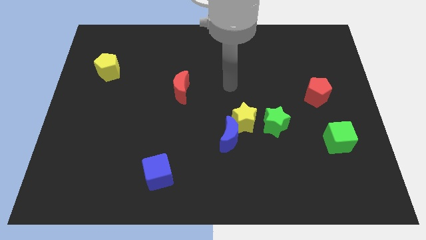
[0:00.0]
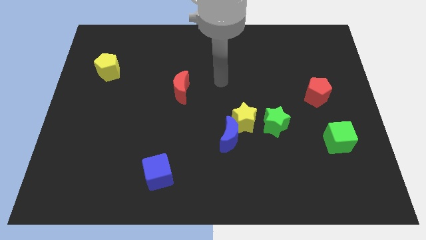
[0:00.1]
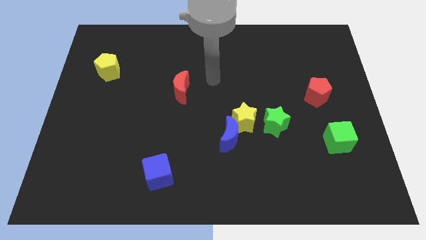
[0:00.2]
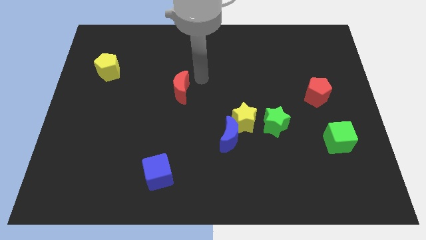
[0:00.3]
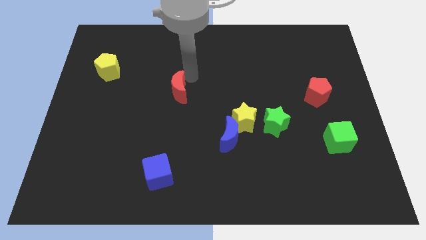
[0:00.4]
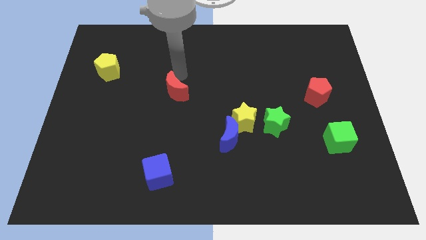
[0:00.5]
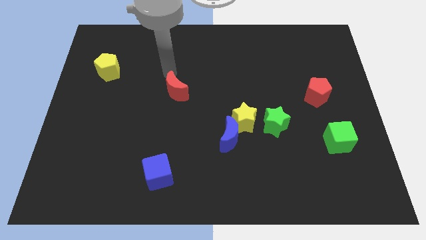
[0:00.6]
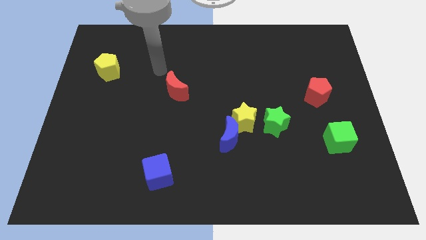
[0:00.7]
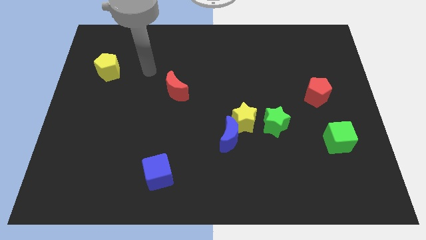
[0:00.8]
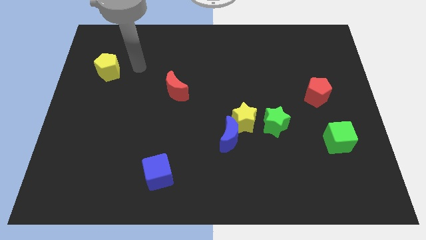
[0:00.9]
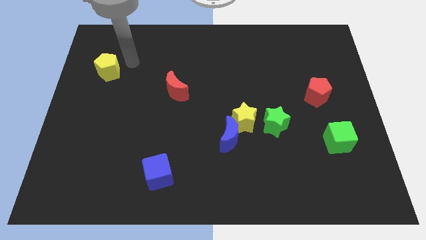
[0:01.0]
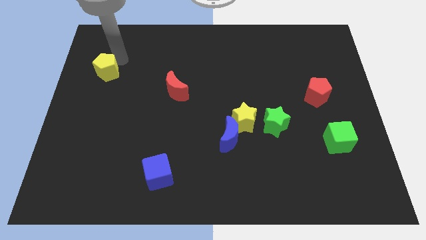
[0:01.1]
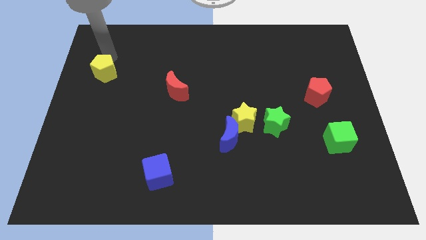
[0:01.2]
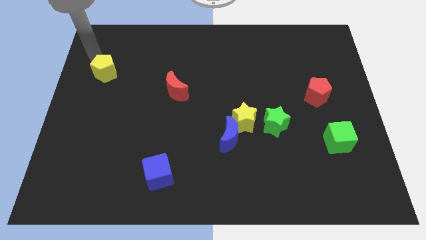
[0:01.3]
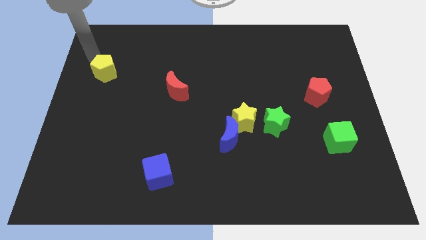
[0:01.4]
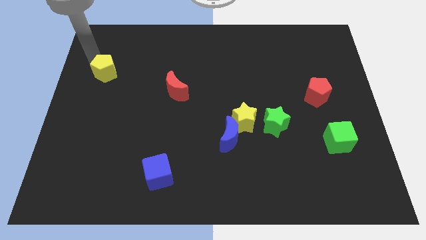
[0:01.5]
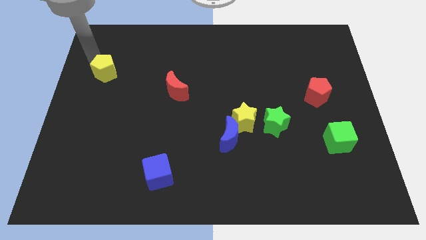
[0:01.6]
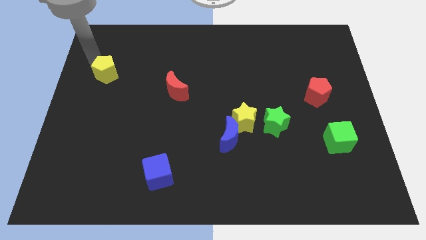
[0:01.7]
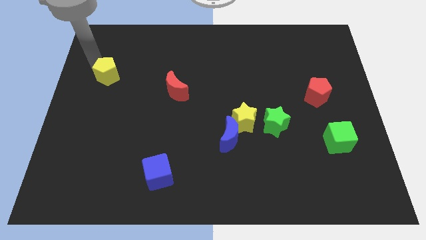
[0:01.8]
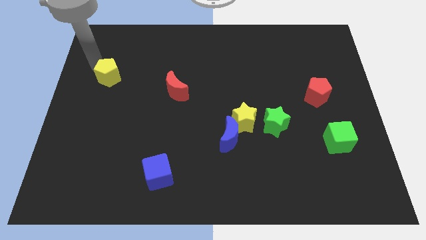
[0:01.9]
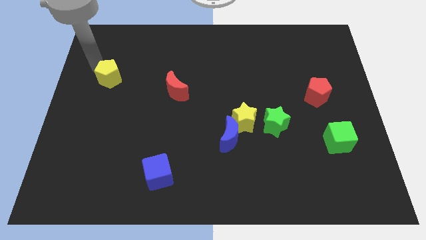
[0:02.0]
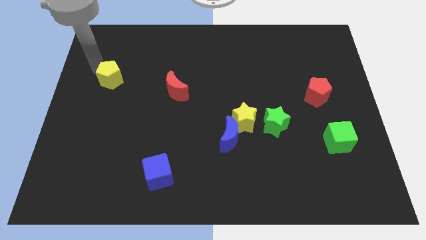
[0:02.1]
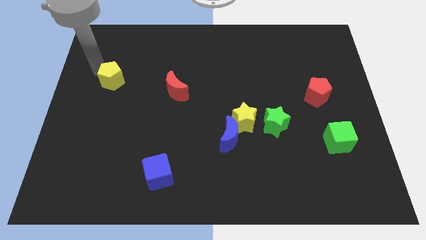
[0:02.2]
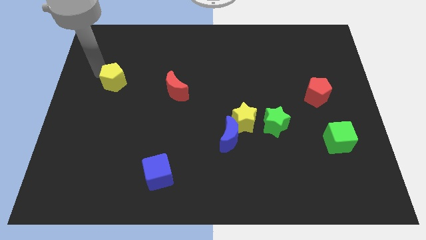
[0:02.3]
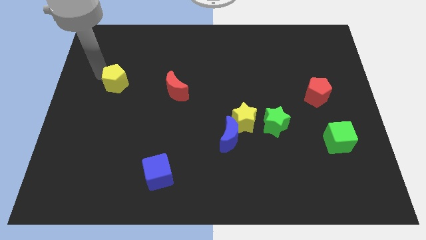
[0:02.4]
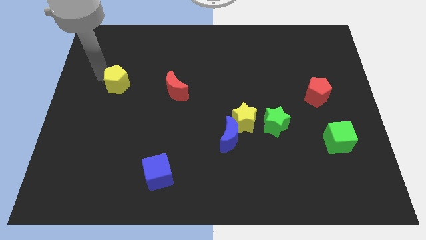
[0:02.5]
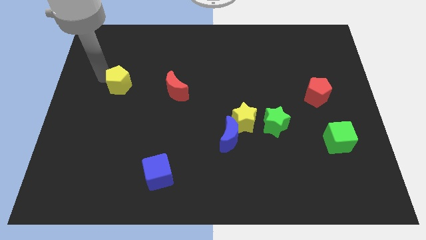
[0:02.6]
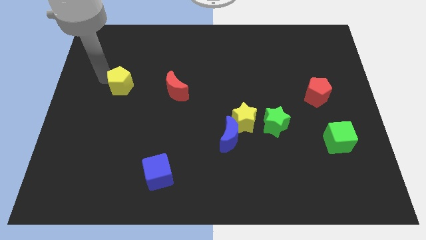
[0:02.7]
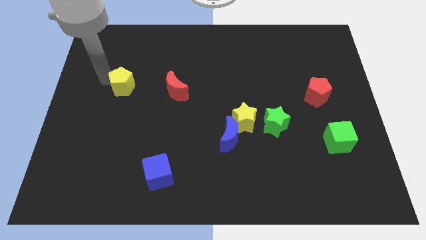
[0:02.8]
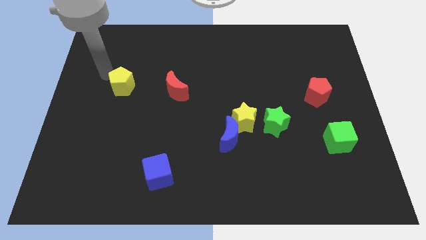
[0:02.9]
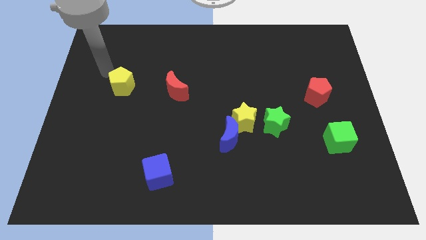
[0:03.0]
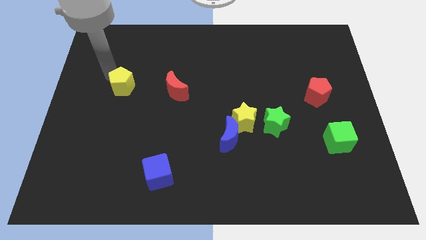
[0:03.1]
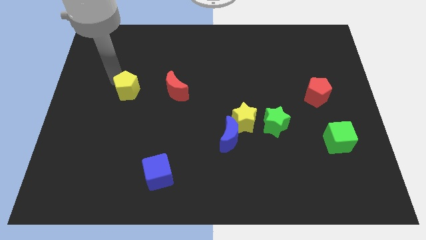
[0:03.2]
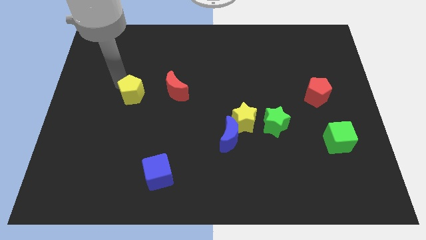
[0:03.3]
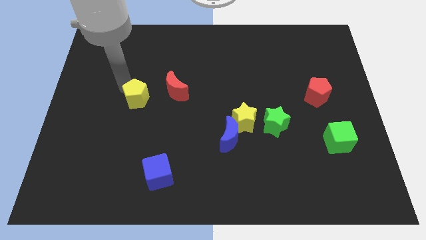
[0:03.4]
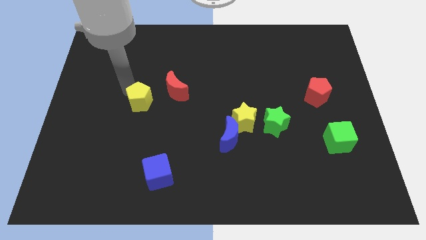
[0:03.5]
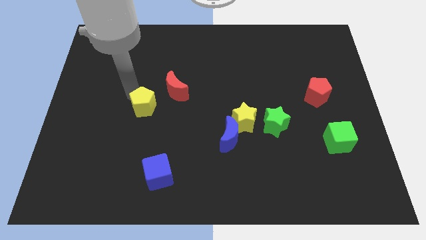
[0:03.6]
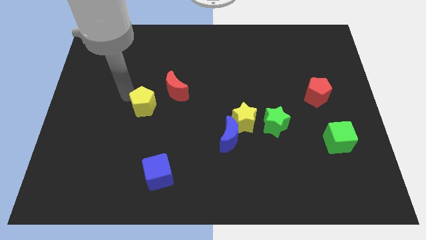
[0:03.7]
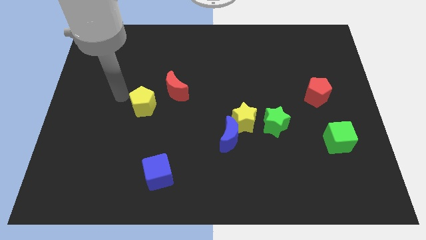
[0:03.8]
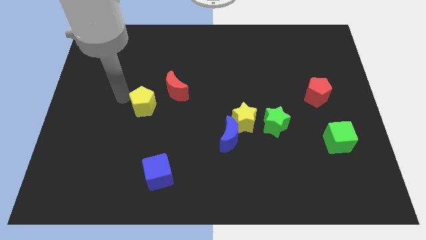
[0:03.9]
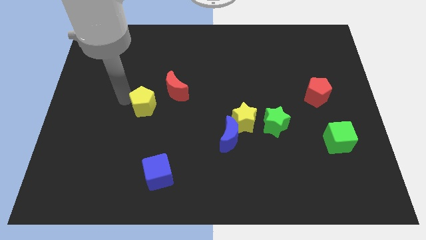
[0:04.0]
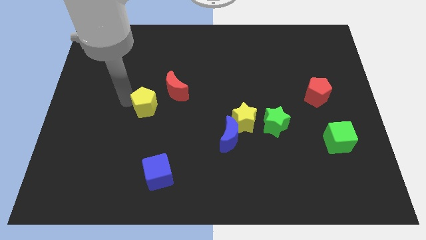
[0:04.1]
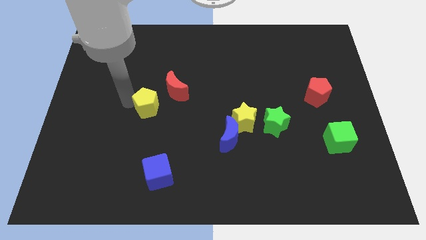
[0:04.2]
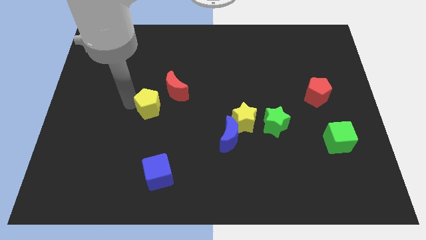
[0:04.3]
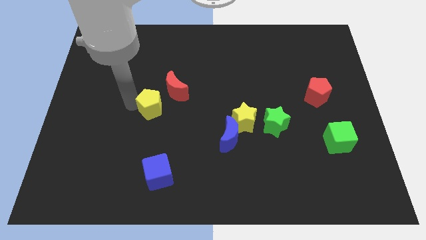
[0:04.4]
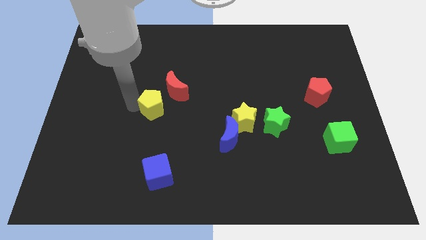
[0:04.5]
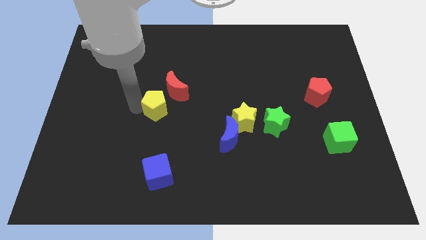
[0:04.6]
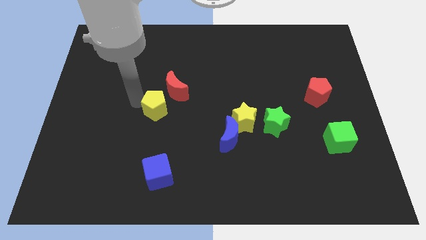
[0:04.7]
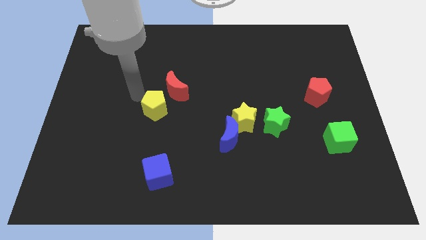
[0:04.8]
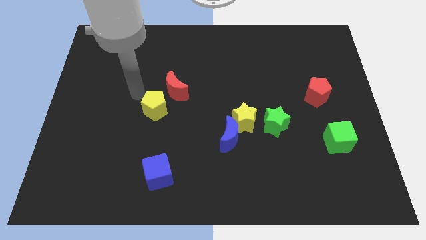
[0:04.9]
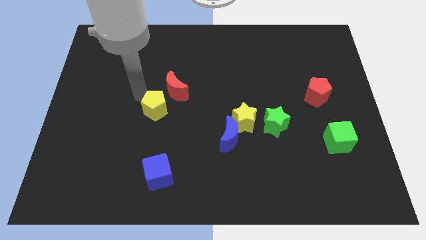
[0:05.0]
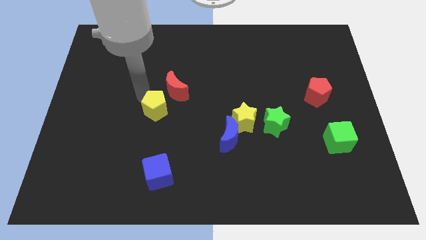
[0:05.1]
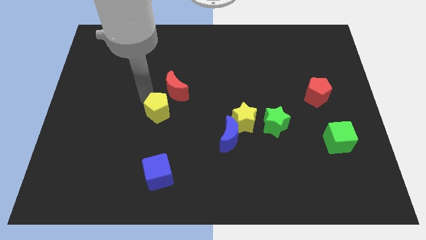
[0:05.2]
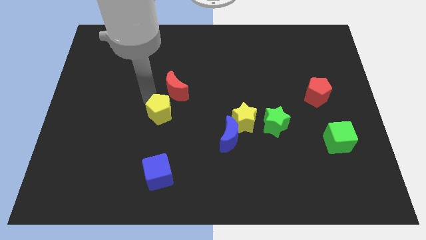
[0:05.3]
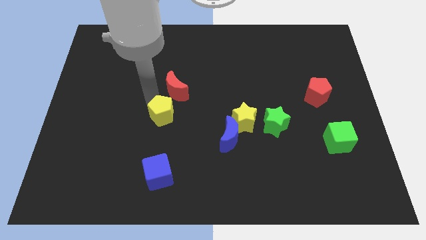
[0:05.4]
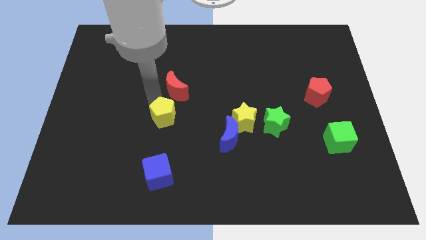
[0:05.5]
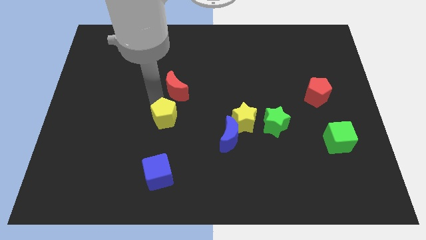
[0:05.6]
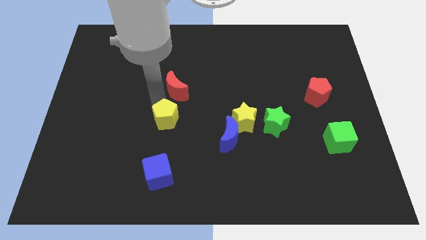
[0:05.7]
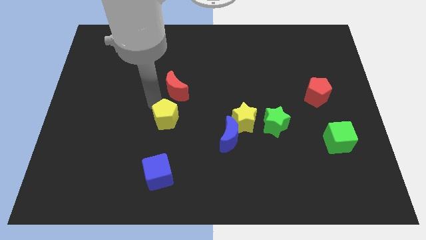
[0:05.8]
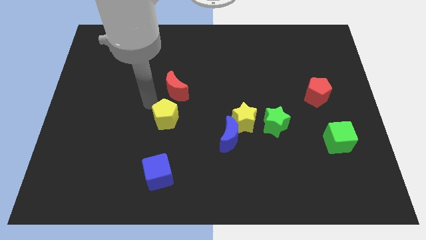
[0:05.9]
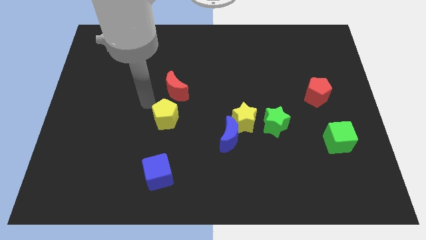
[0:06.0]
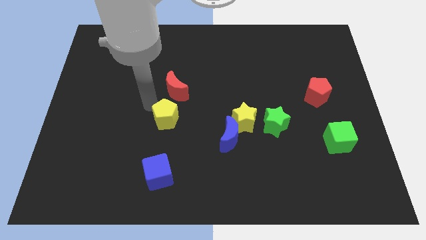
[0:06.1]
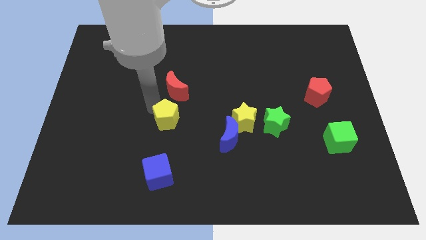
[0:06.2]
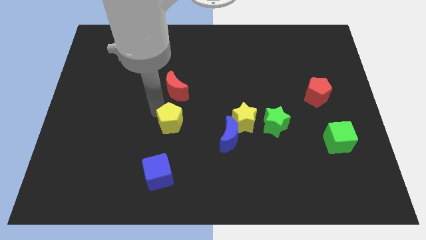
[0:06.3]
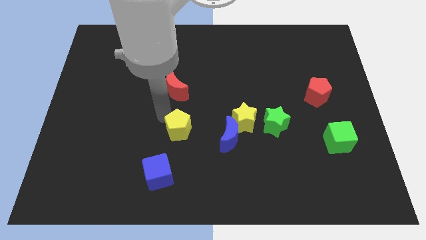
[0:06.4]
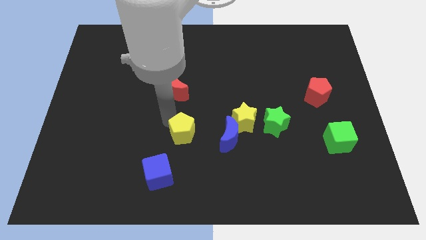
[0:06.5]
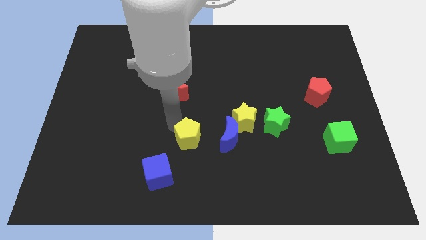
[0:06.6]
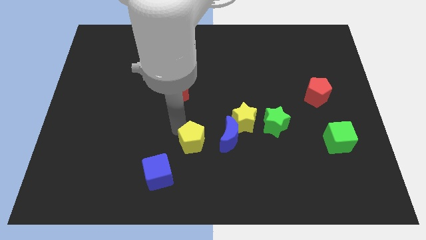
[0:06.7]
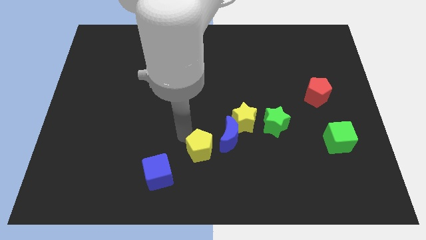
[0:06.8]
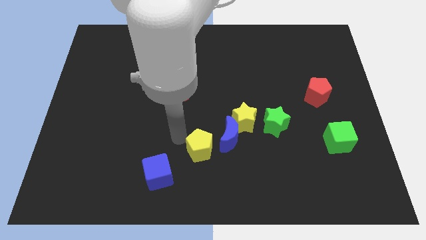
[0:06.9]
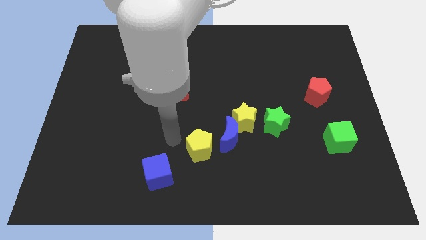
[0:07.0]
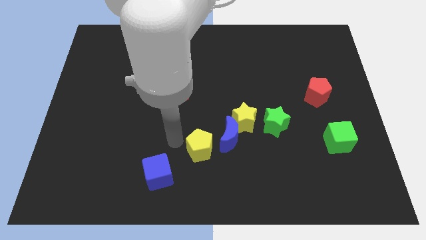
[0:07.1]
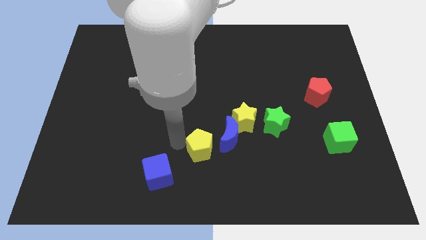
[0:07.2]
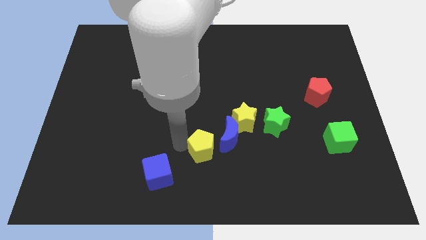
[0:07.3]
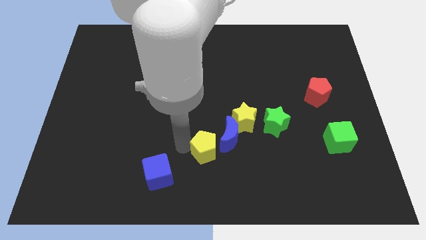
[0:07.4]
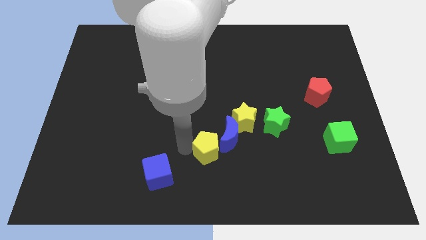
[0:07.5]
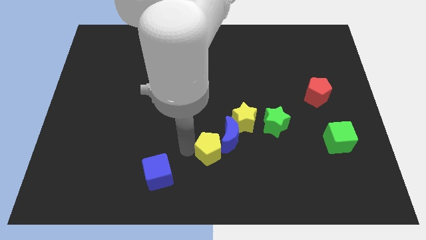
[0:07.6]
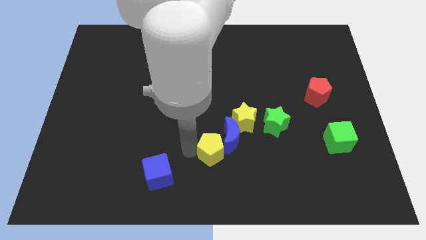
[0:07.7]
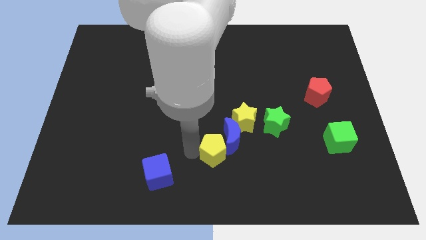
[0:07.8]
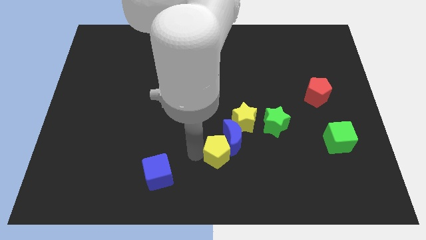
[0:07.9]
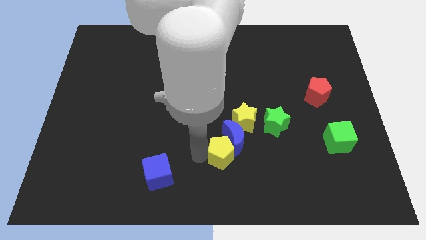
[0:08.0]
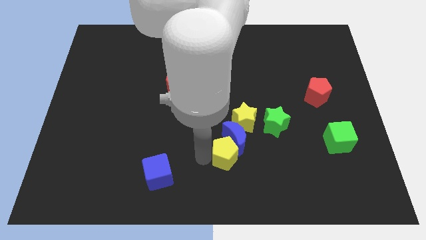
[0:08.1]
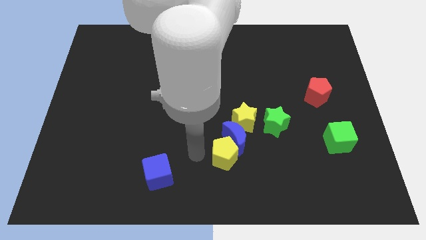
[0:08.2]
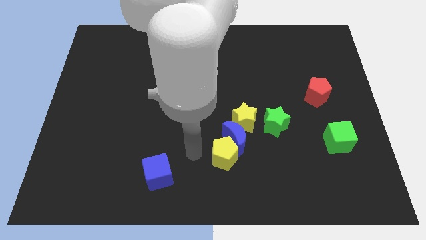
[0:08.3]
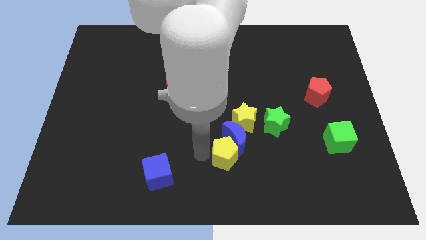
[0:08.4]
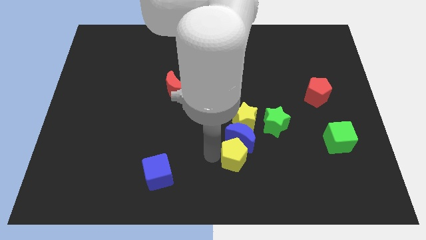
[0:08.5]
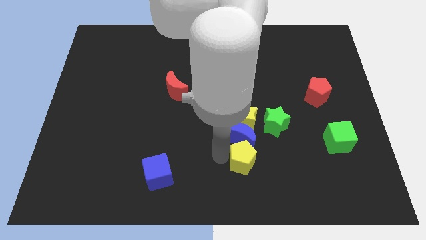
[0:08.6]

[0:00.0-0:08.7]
move the yellow pentagon diagonally down and to the right of the blue moon

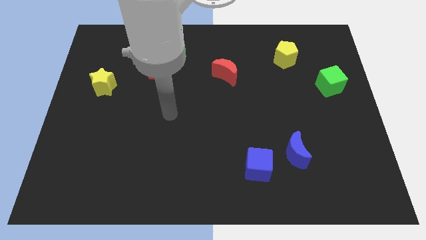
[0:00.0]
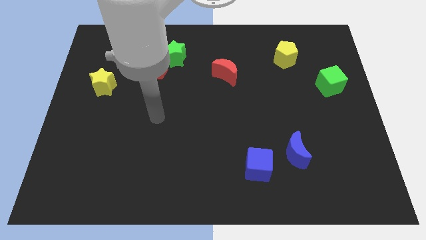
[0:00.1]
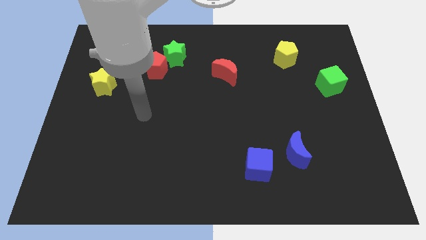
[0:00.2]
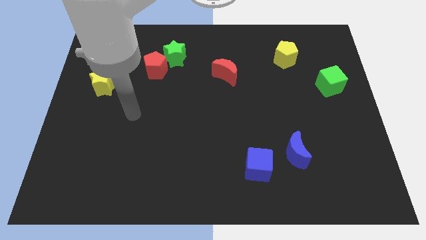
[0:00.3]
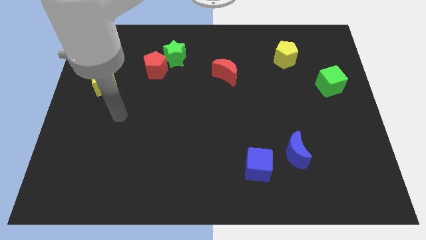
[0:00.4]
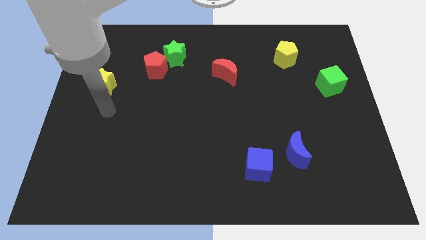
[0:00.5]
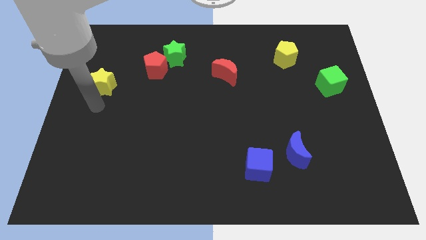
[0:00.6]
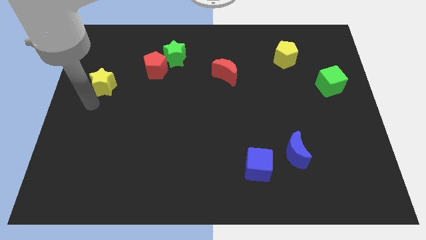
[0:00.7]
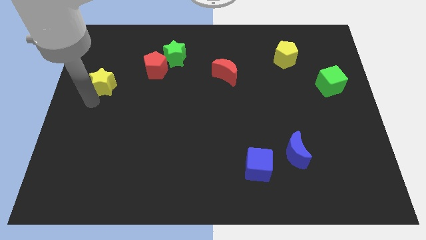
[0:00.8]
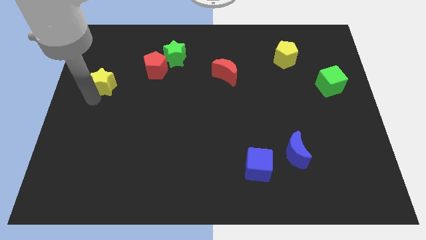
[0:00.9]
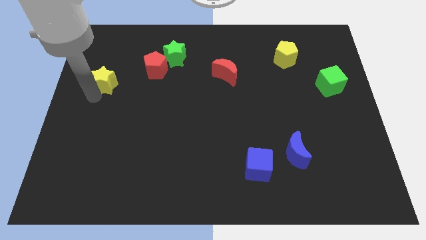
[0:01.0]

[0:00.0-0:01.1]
put the yellow star just left of the red pentagon
